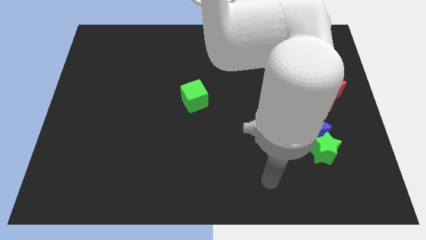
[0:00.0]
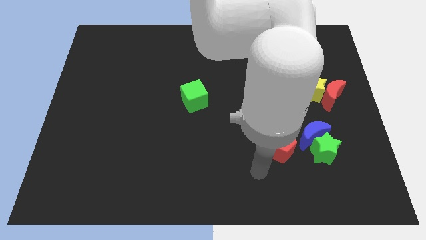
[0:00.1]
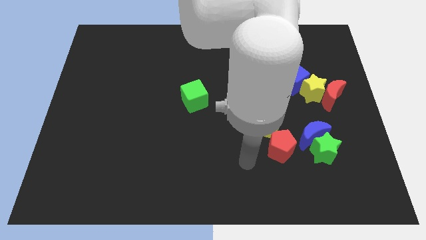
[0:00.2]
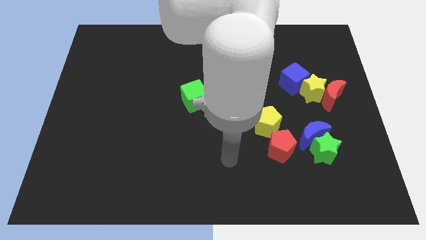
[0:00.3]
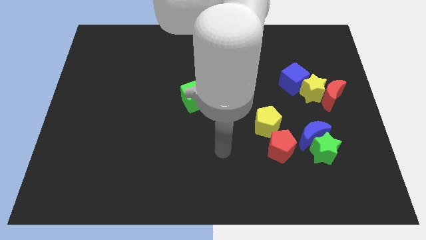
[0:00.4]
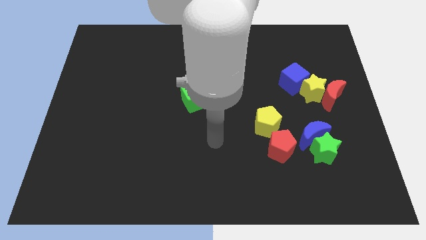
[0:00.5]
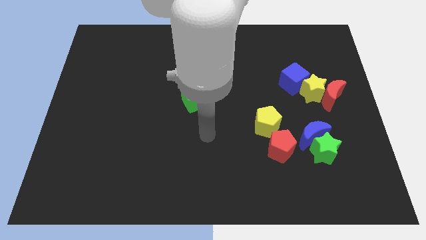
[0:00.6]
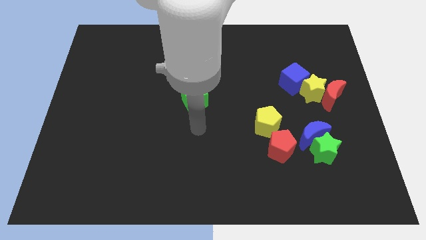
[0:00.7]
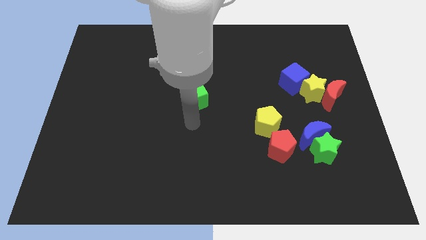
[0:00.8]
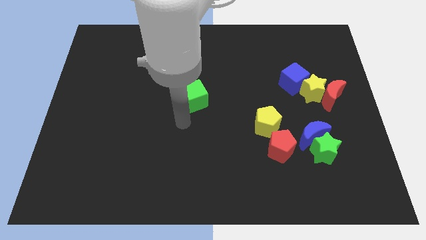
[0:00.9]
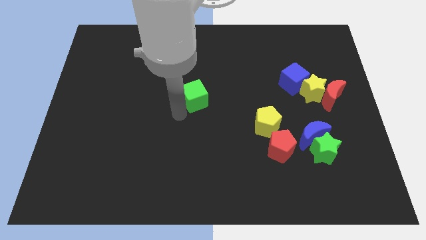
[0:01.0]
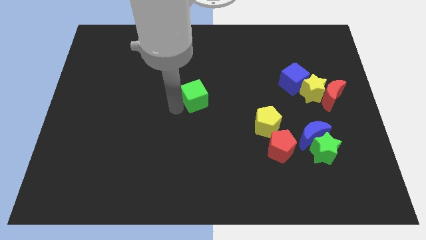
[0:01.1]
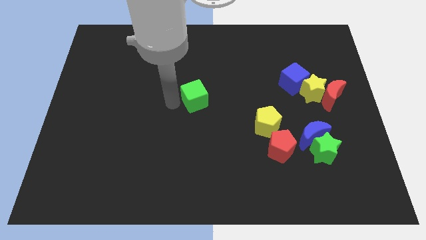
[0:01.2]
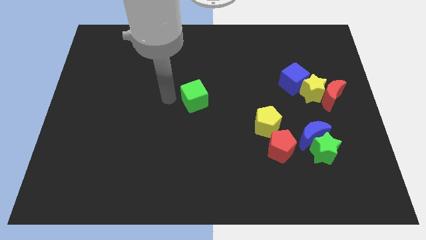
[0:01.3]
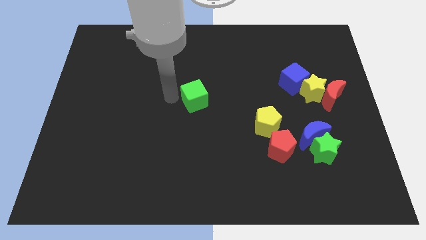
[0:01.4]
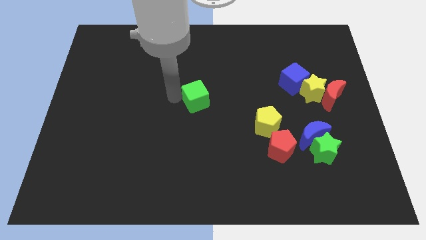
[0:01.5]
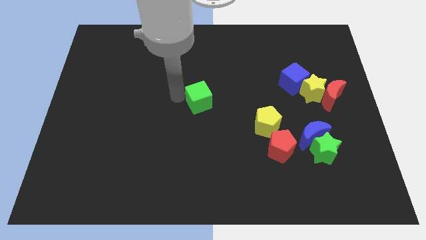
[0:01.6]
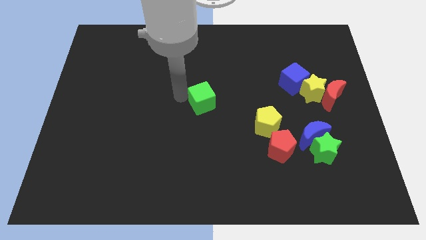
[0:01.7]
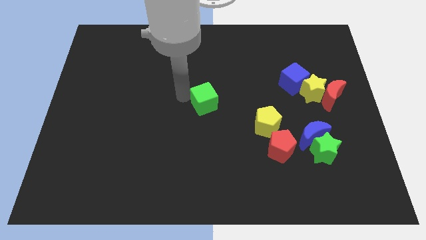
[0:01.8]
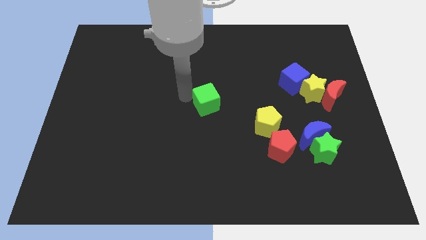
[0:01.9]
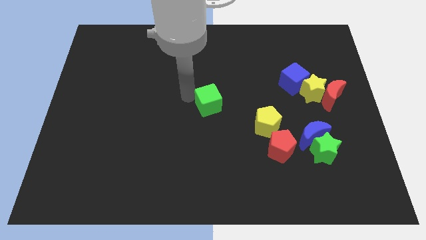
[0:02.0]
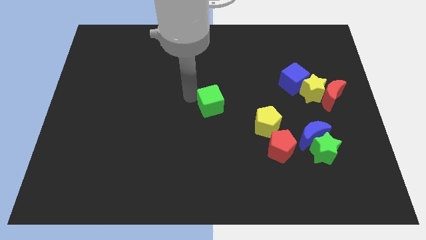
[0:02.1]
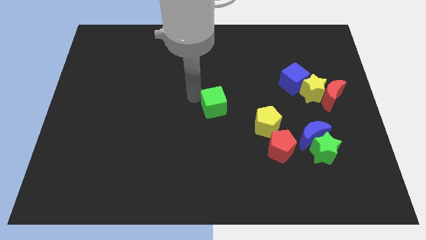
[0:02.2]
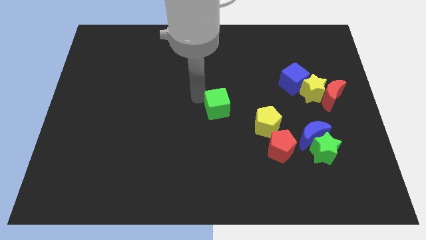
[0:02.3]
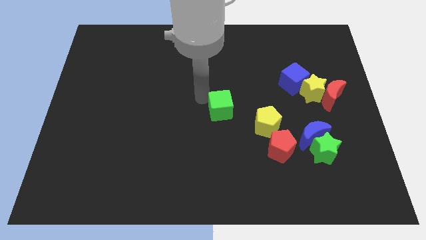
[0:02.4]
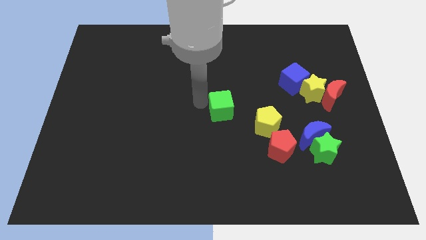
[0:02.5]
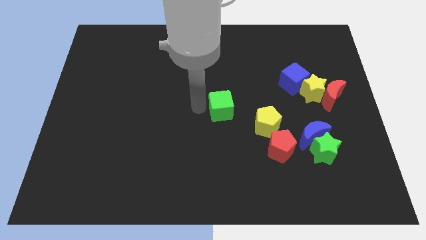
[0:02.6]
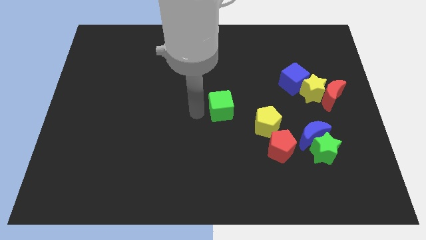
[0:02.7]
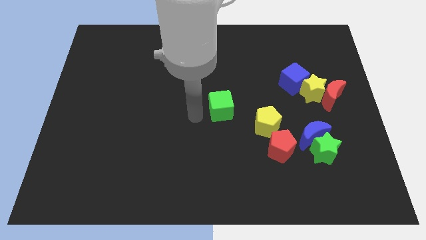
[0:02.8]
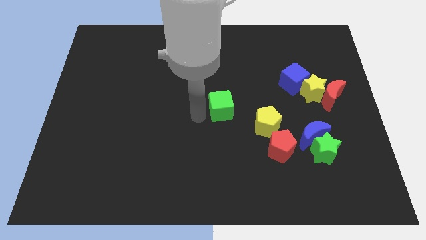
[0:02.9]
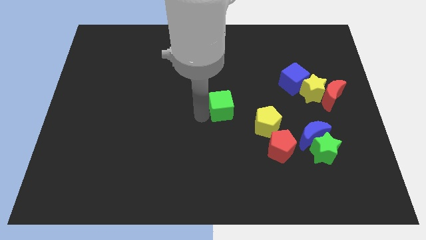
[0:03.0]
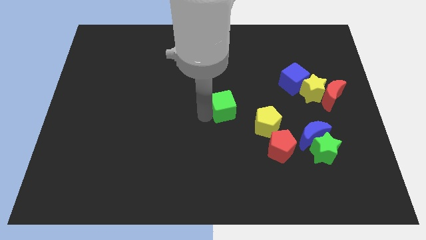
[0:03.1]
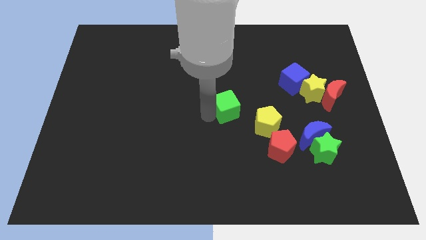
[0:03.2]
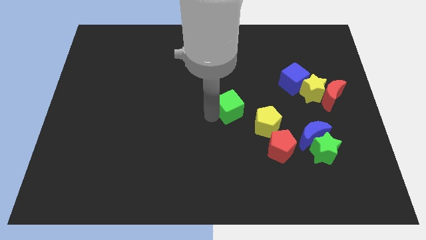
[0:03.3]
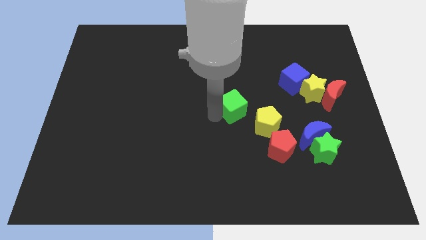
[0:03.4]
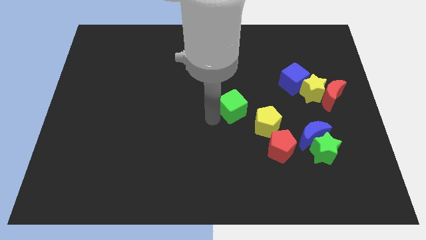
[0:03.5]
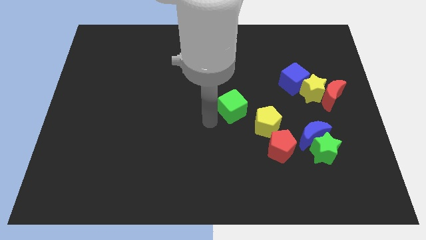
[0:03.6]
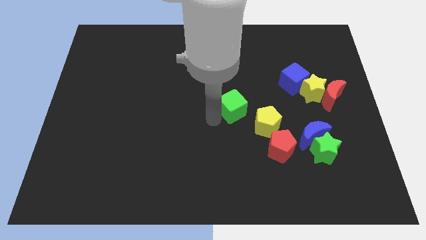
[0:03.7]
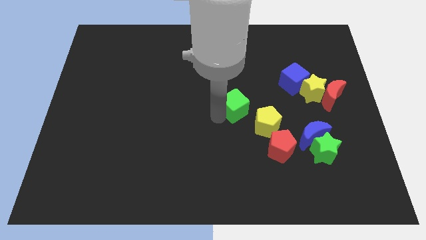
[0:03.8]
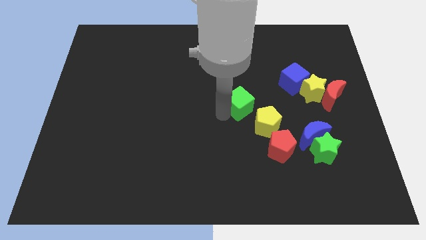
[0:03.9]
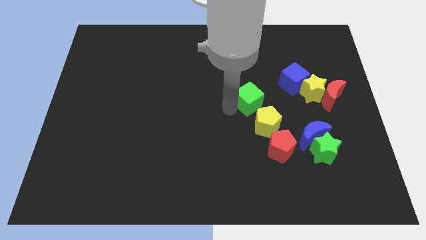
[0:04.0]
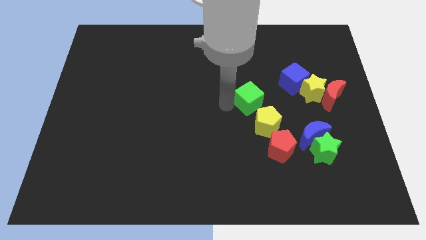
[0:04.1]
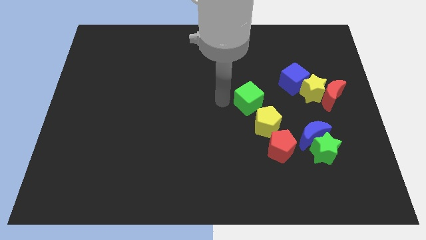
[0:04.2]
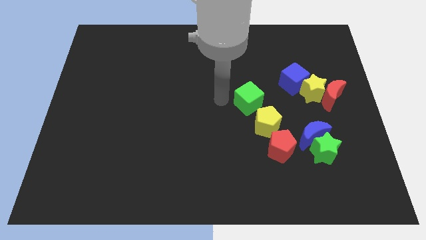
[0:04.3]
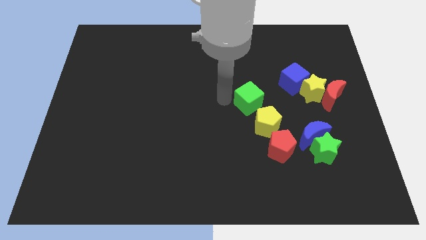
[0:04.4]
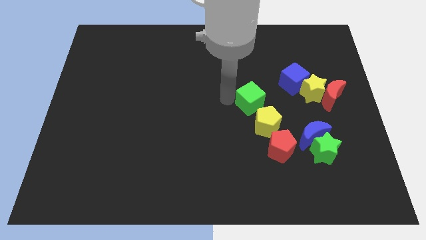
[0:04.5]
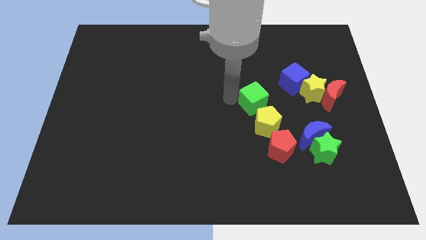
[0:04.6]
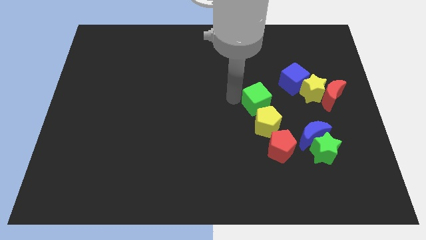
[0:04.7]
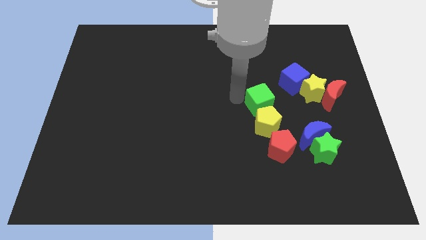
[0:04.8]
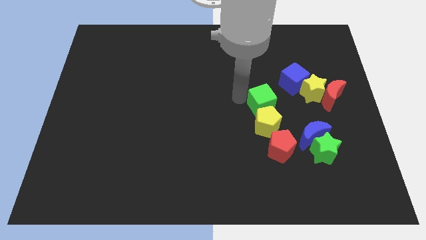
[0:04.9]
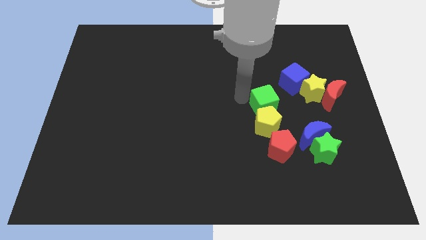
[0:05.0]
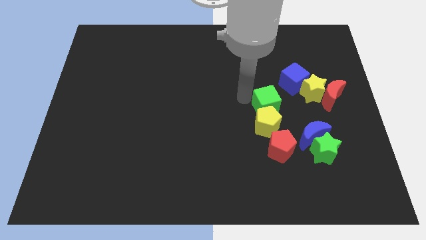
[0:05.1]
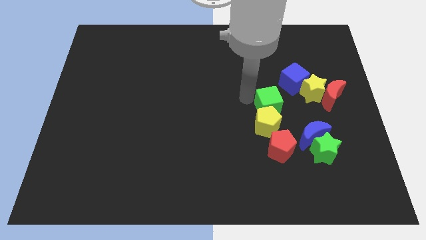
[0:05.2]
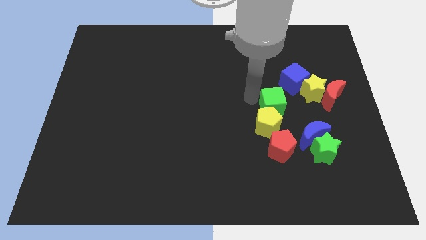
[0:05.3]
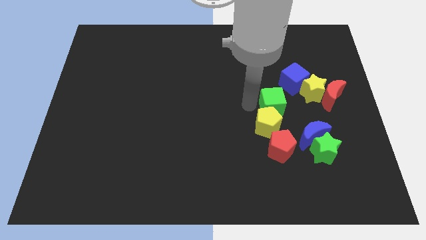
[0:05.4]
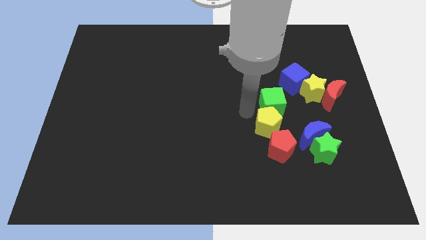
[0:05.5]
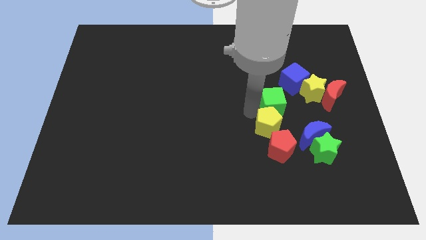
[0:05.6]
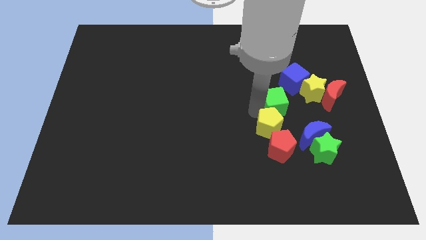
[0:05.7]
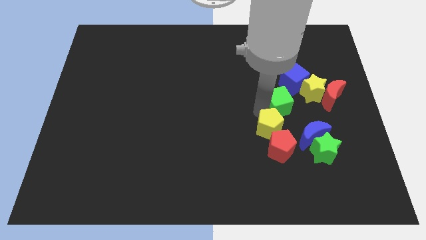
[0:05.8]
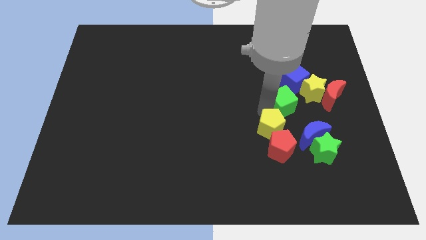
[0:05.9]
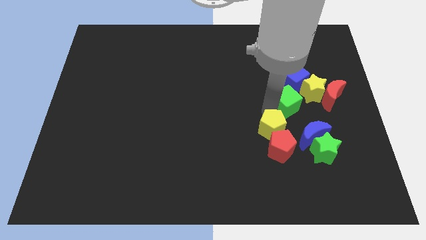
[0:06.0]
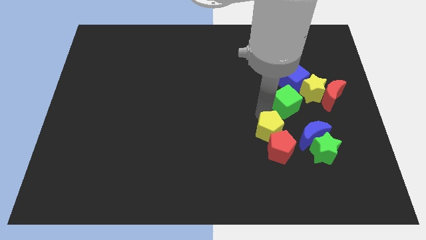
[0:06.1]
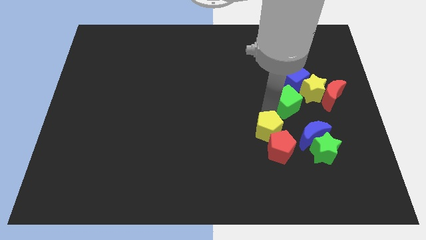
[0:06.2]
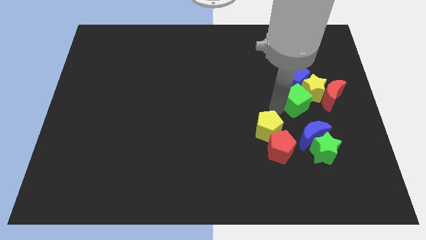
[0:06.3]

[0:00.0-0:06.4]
put the green cube next to the yellow star

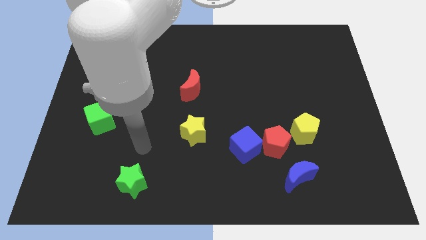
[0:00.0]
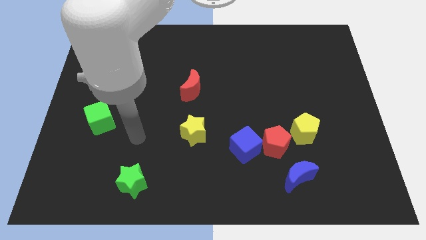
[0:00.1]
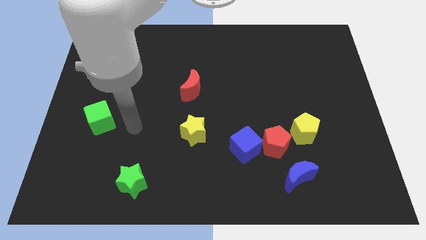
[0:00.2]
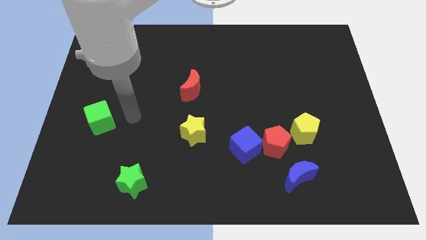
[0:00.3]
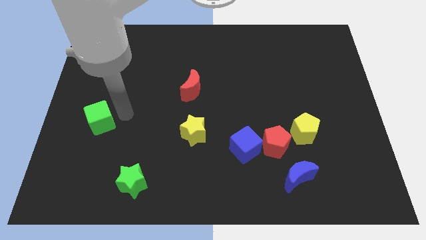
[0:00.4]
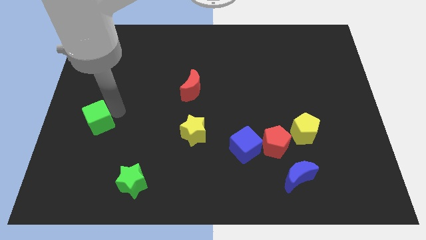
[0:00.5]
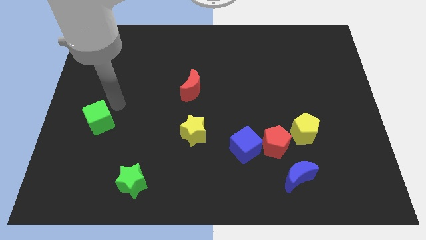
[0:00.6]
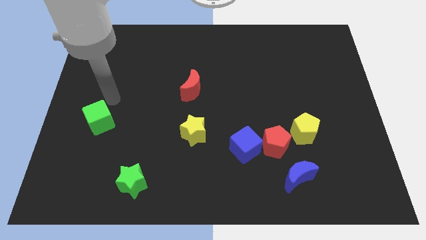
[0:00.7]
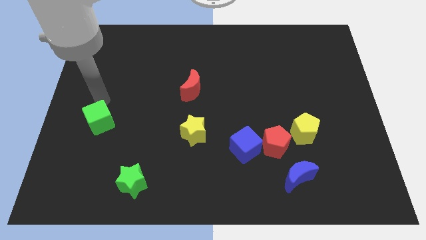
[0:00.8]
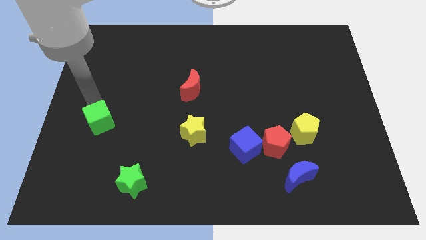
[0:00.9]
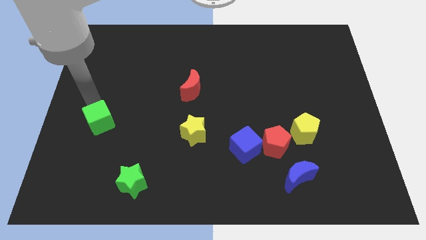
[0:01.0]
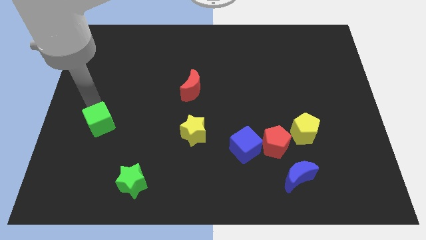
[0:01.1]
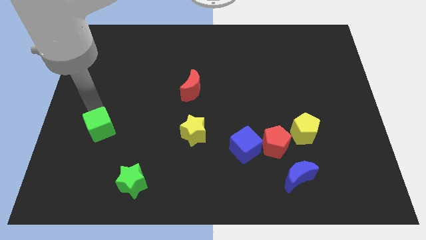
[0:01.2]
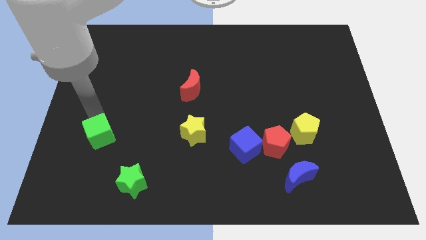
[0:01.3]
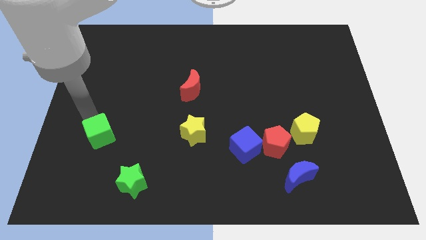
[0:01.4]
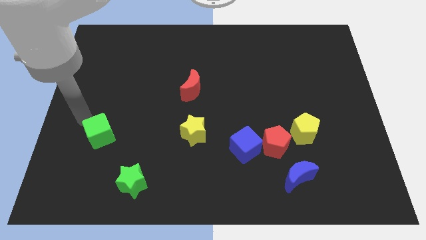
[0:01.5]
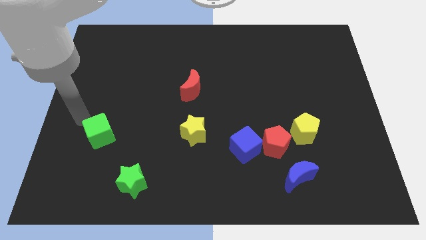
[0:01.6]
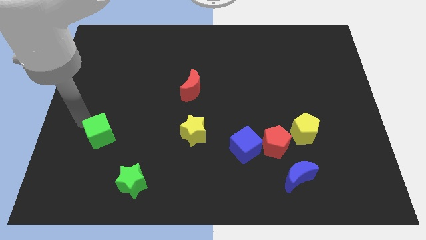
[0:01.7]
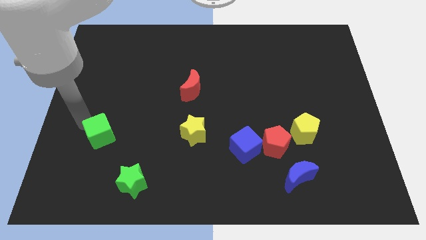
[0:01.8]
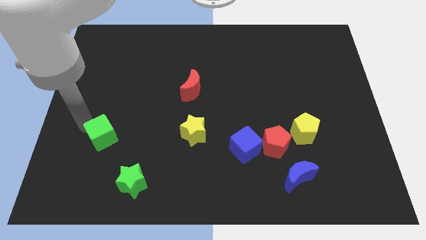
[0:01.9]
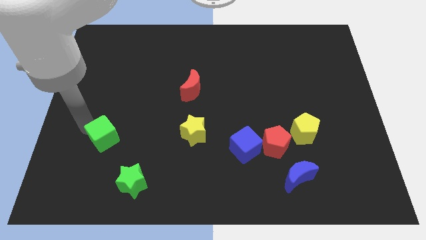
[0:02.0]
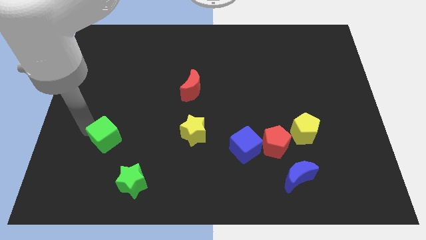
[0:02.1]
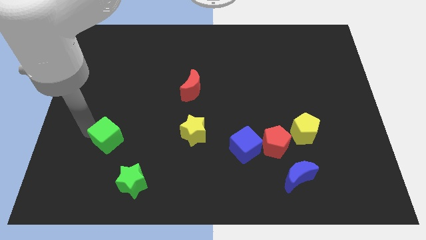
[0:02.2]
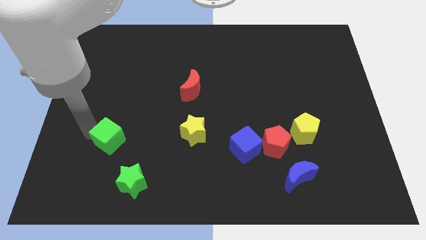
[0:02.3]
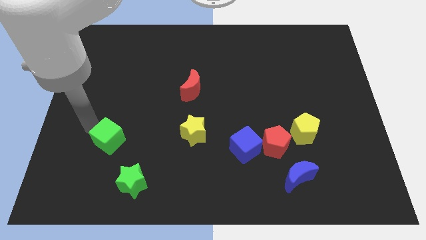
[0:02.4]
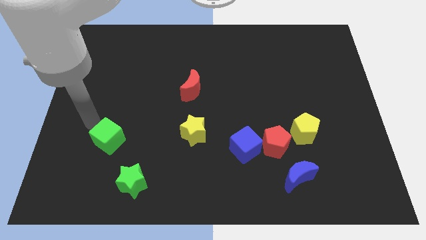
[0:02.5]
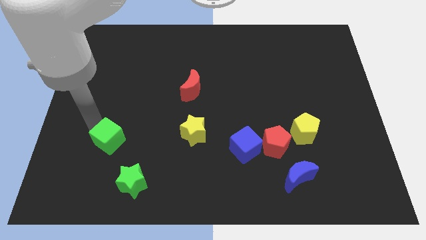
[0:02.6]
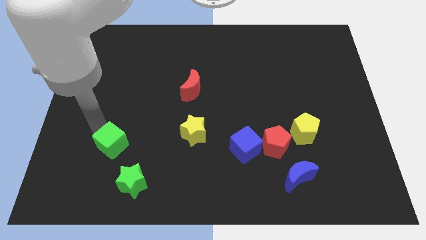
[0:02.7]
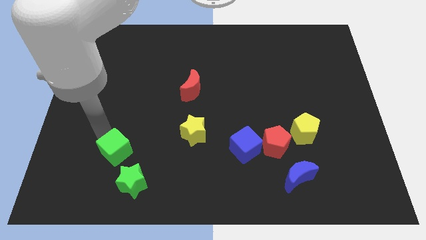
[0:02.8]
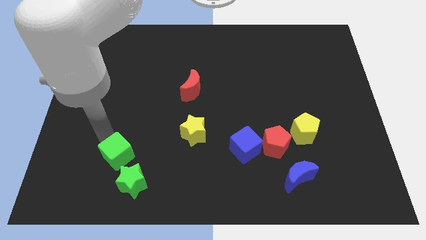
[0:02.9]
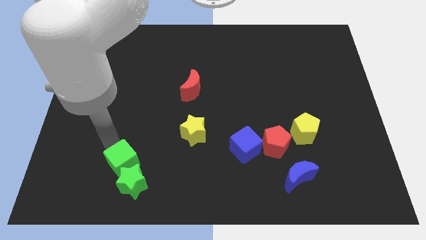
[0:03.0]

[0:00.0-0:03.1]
push the green cube towards the green star
